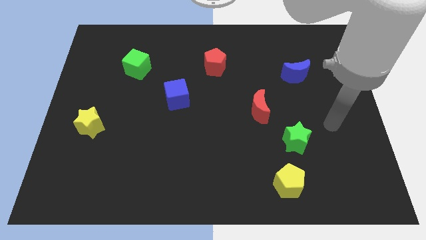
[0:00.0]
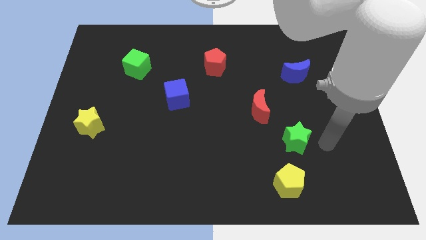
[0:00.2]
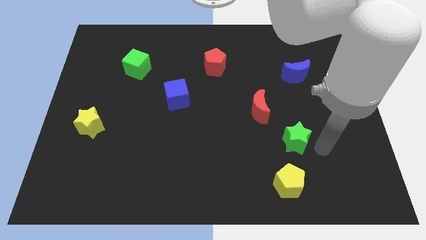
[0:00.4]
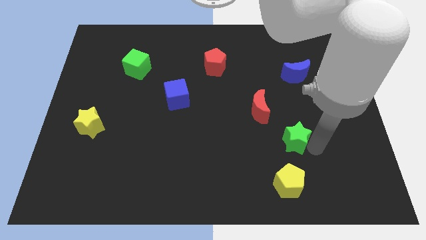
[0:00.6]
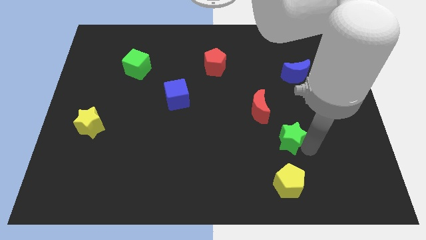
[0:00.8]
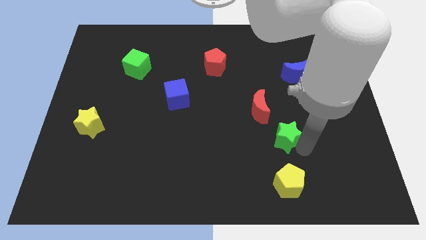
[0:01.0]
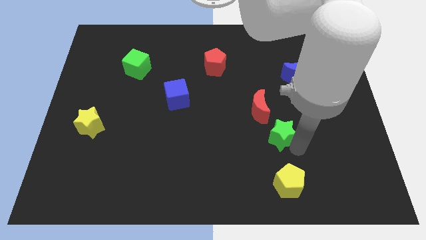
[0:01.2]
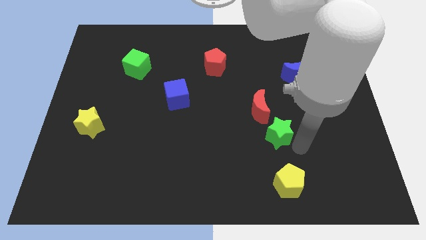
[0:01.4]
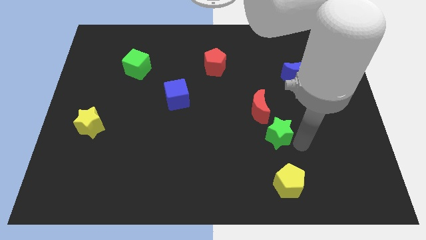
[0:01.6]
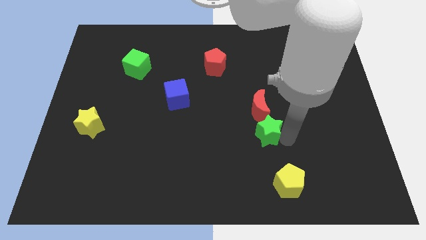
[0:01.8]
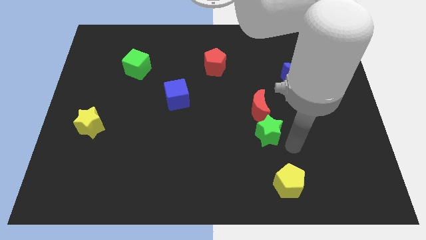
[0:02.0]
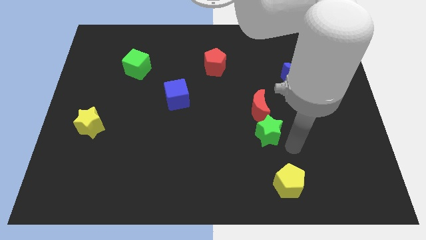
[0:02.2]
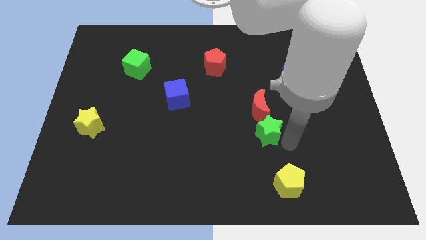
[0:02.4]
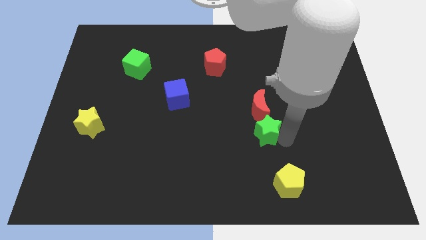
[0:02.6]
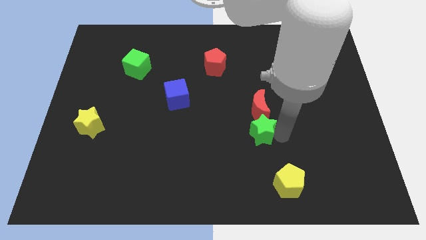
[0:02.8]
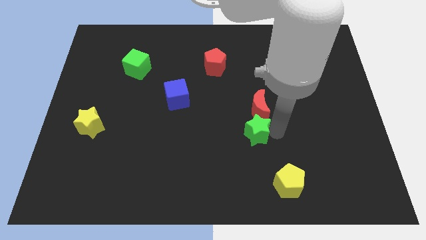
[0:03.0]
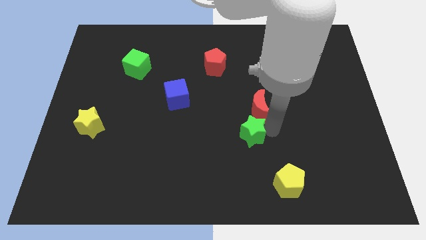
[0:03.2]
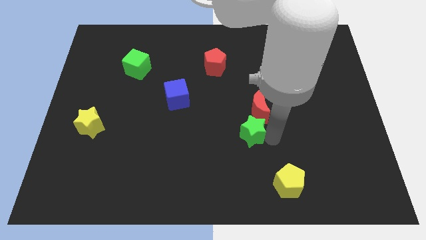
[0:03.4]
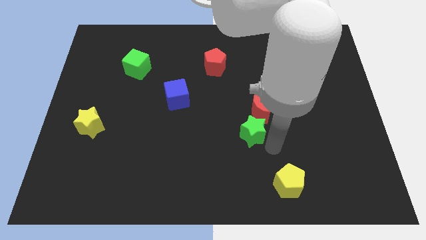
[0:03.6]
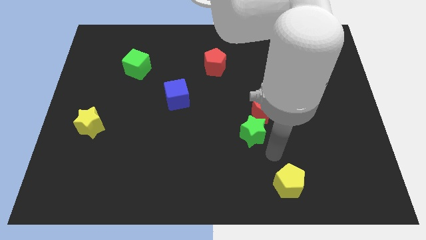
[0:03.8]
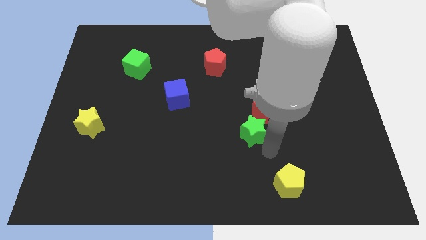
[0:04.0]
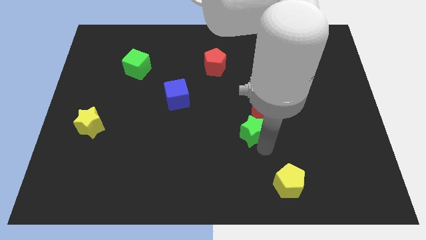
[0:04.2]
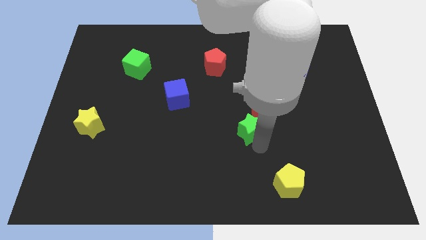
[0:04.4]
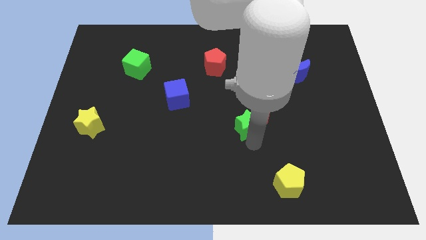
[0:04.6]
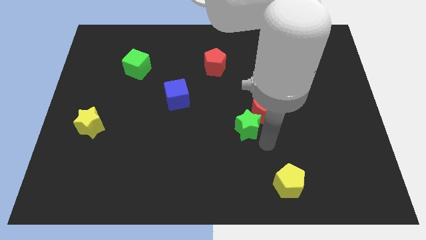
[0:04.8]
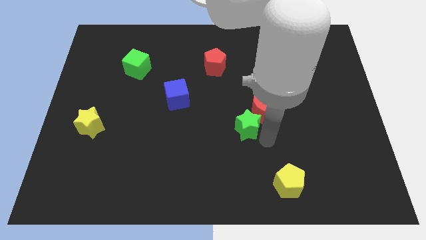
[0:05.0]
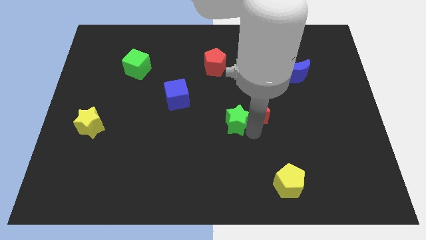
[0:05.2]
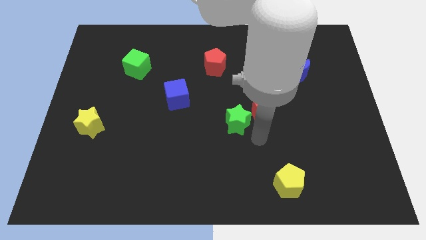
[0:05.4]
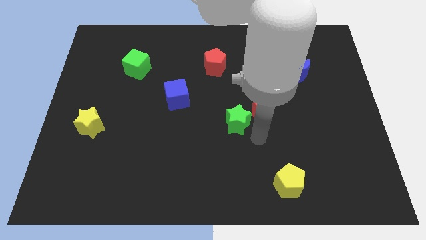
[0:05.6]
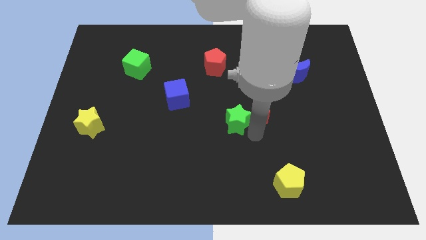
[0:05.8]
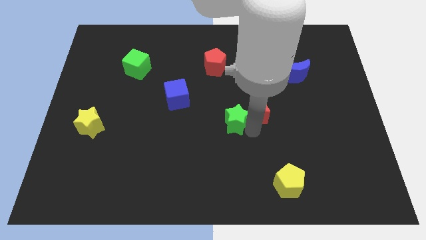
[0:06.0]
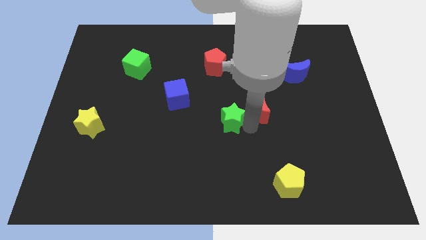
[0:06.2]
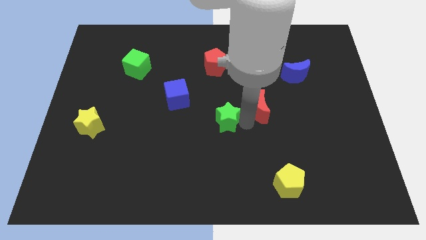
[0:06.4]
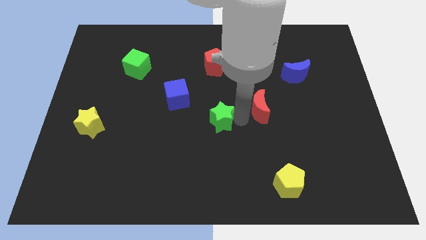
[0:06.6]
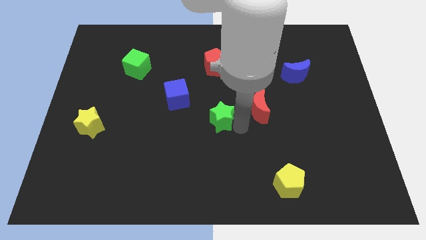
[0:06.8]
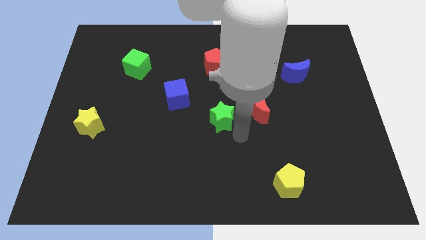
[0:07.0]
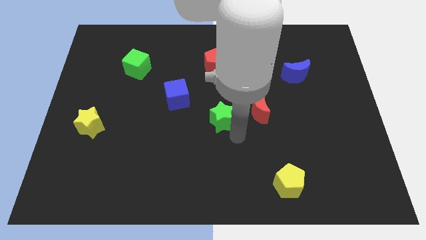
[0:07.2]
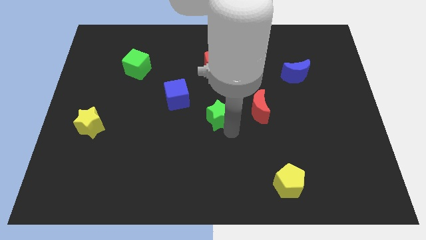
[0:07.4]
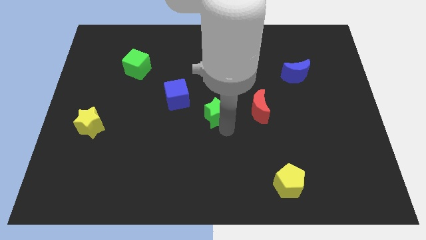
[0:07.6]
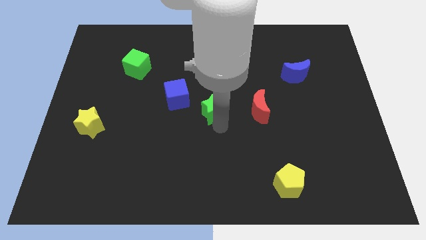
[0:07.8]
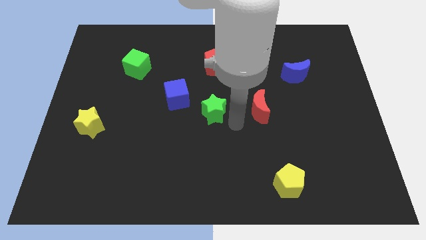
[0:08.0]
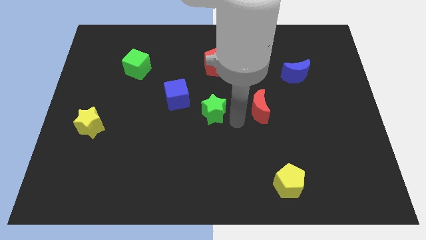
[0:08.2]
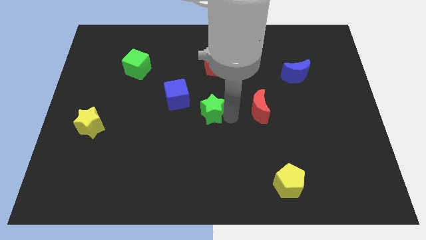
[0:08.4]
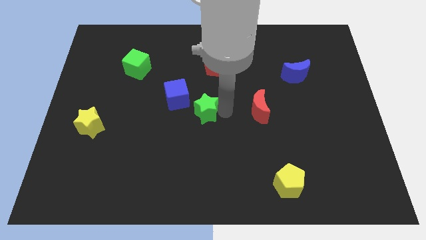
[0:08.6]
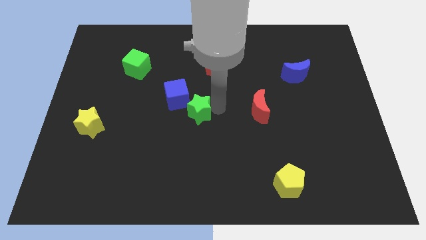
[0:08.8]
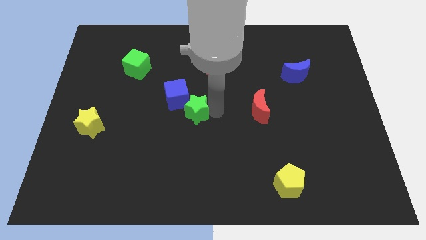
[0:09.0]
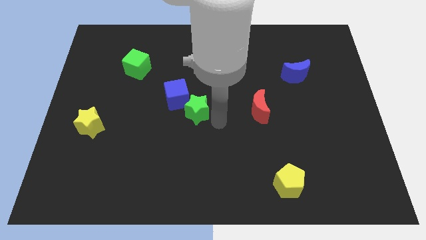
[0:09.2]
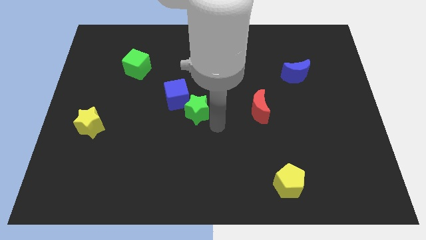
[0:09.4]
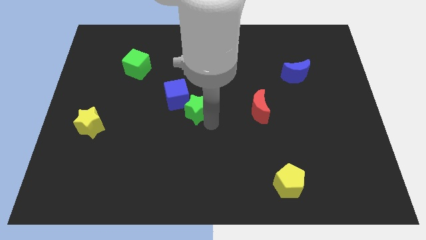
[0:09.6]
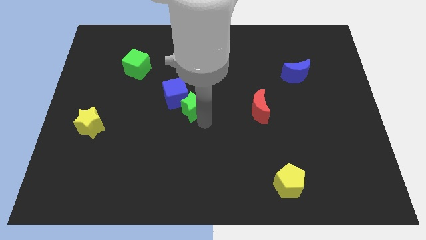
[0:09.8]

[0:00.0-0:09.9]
move the green star to the blue cube

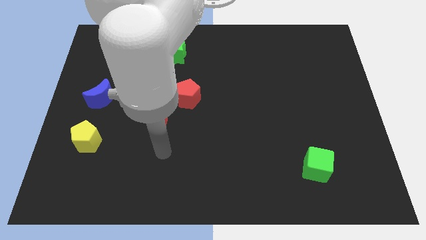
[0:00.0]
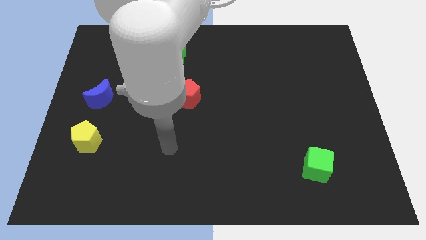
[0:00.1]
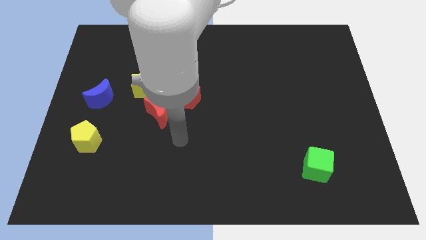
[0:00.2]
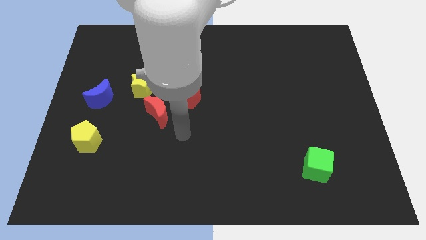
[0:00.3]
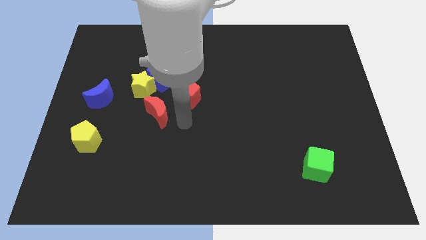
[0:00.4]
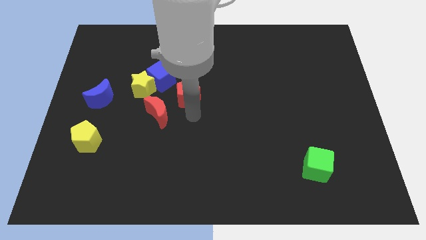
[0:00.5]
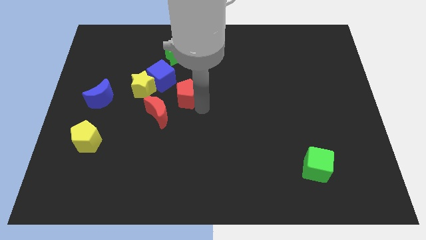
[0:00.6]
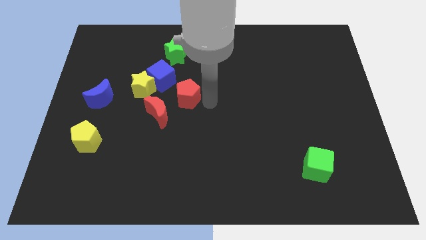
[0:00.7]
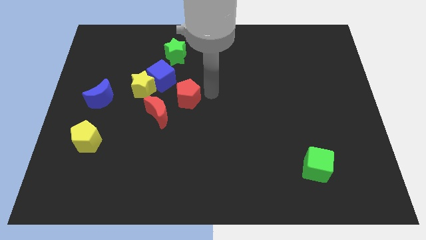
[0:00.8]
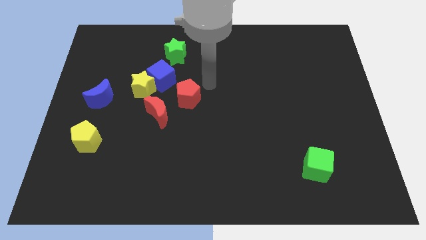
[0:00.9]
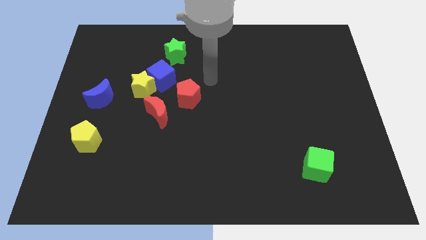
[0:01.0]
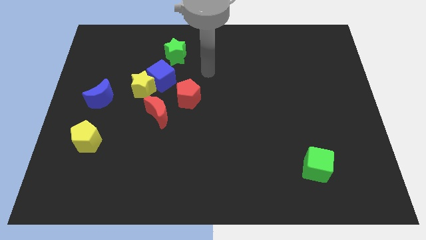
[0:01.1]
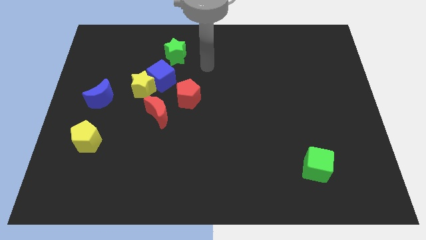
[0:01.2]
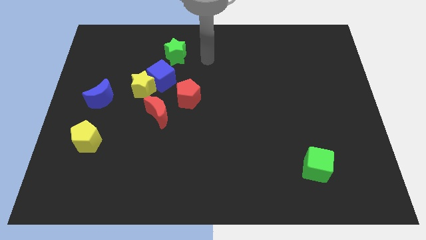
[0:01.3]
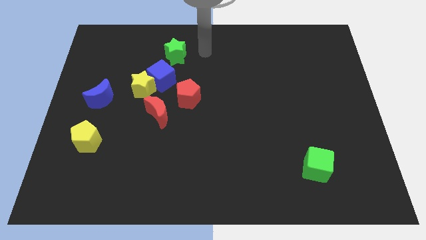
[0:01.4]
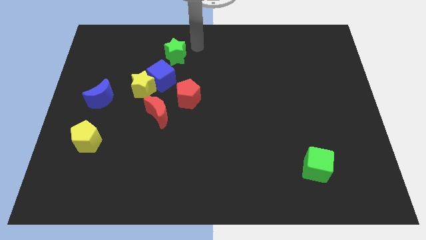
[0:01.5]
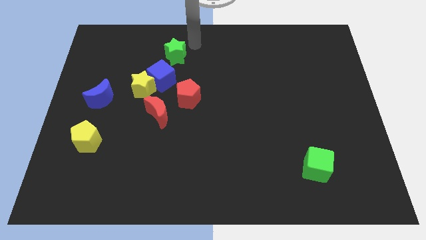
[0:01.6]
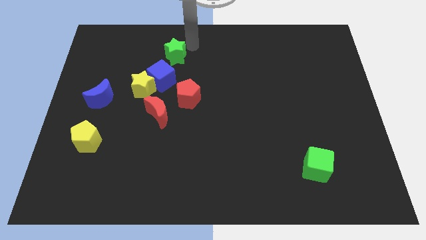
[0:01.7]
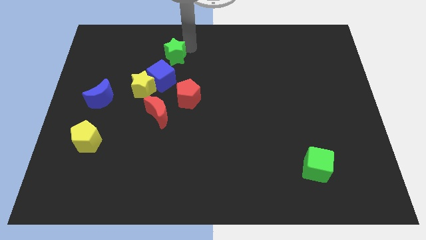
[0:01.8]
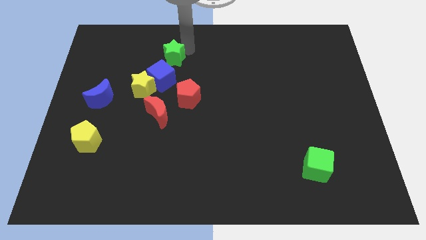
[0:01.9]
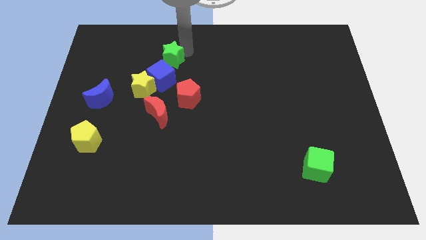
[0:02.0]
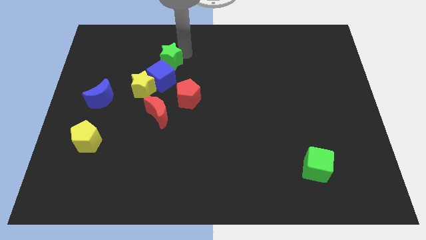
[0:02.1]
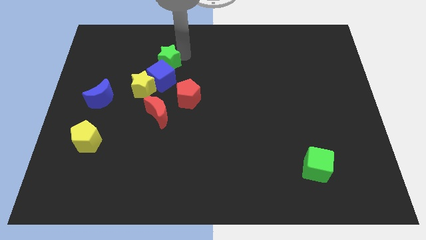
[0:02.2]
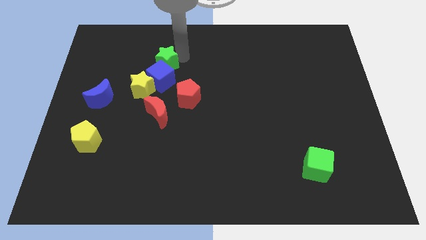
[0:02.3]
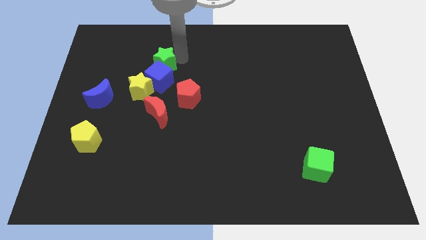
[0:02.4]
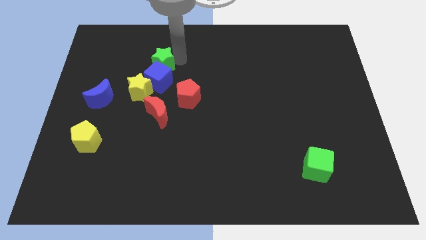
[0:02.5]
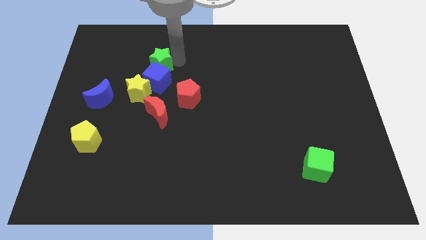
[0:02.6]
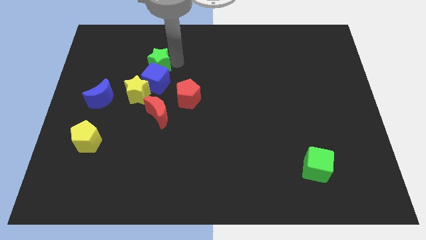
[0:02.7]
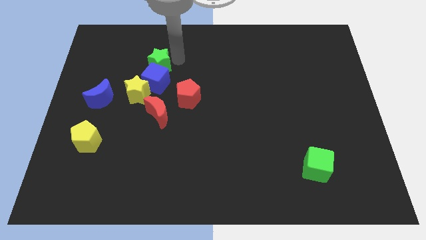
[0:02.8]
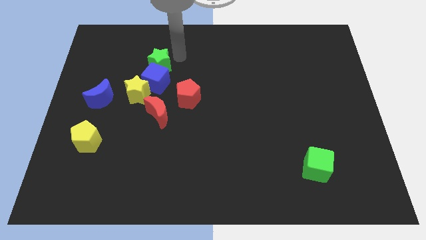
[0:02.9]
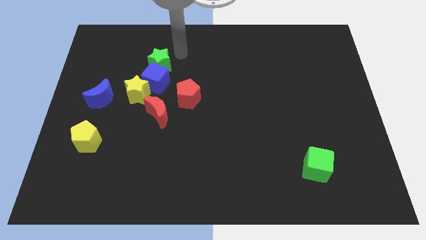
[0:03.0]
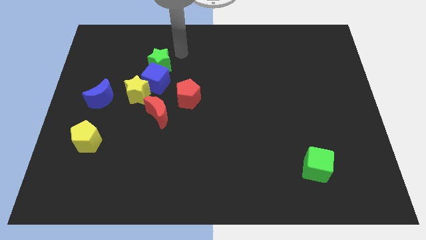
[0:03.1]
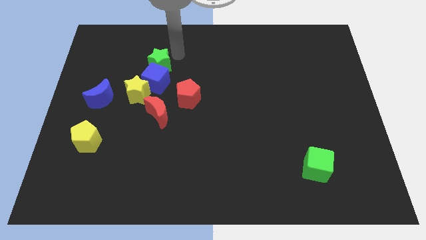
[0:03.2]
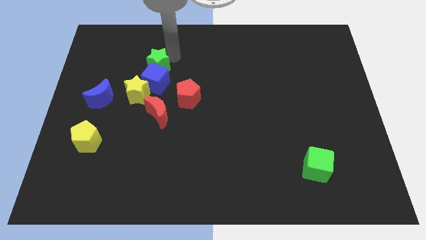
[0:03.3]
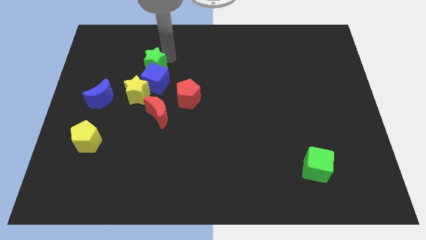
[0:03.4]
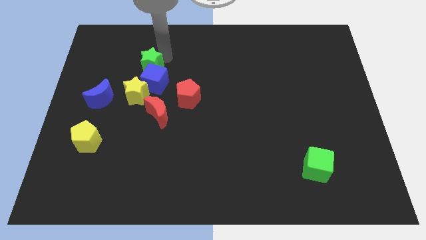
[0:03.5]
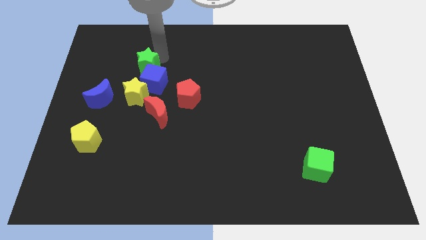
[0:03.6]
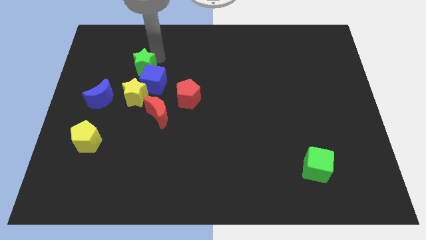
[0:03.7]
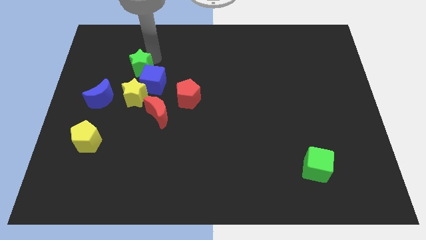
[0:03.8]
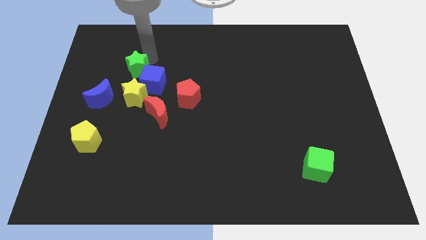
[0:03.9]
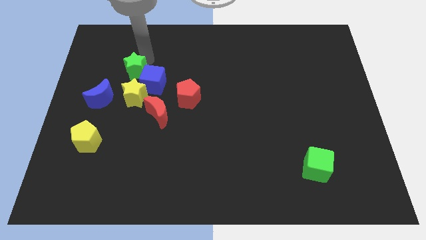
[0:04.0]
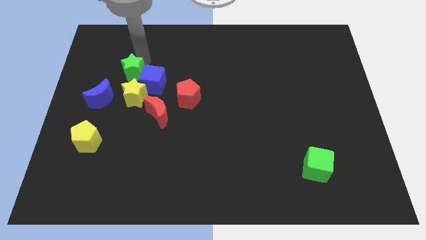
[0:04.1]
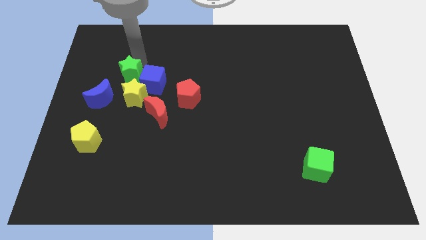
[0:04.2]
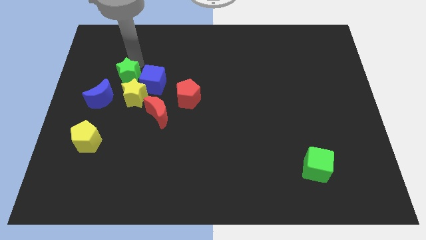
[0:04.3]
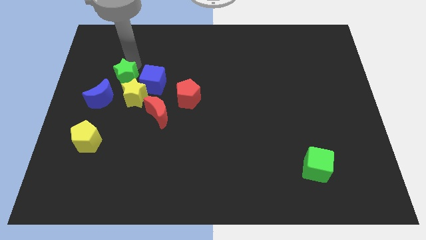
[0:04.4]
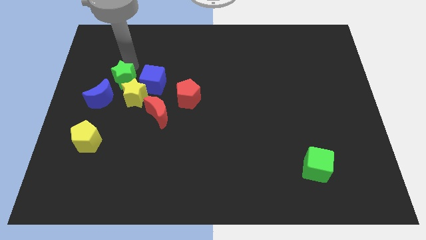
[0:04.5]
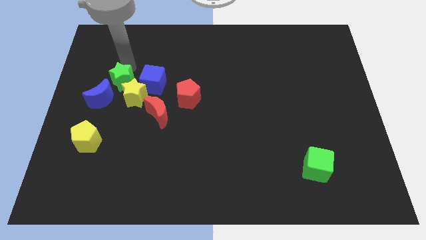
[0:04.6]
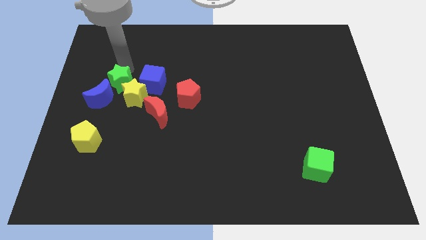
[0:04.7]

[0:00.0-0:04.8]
move the green star towards the yellow star
